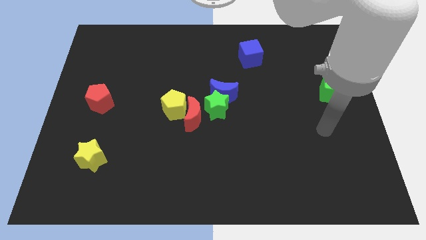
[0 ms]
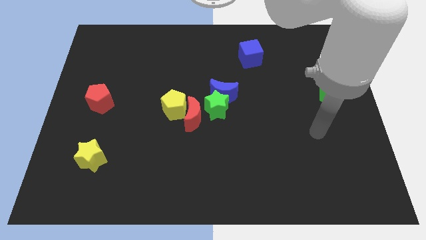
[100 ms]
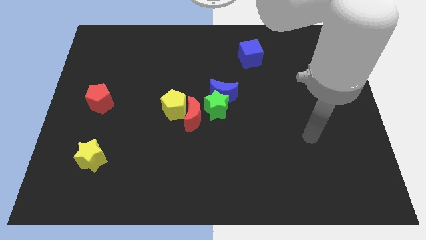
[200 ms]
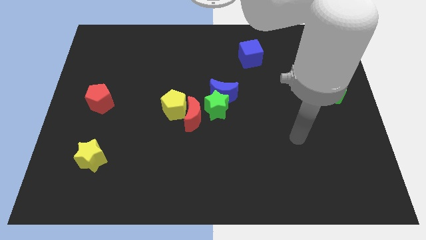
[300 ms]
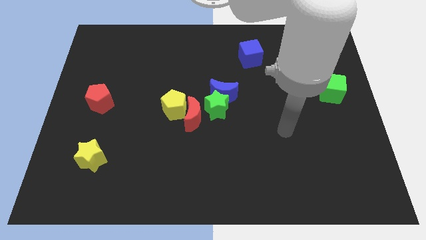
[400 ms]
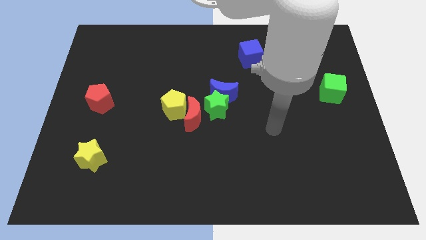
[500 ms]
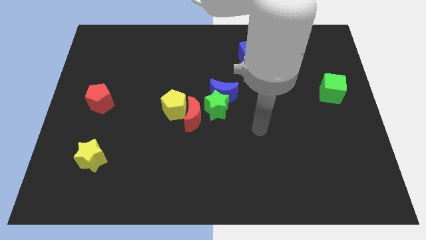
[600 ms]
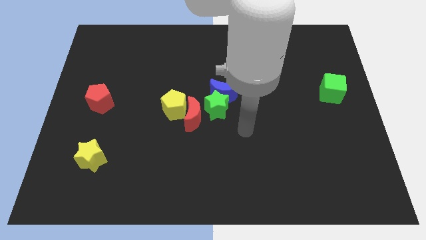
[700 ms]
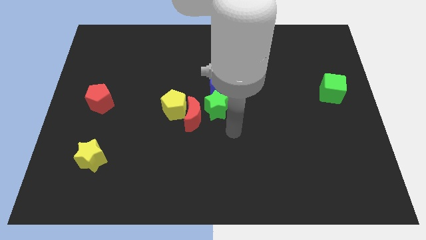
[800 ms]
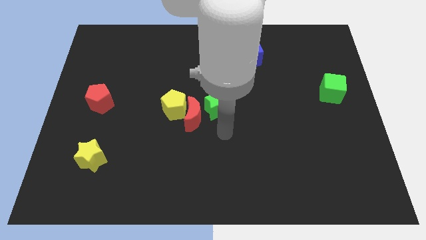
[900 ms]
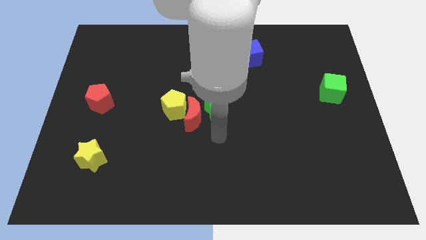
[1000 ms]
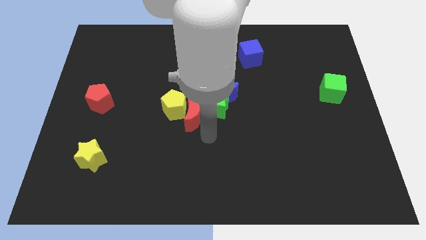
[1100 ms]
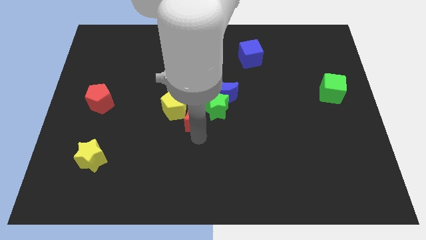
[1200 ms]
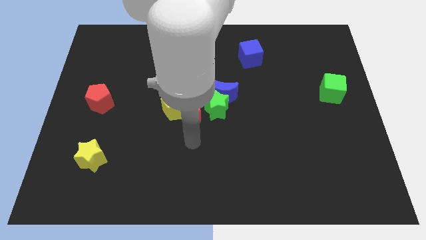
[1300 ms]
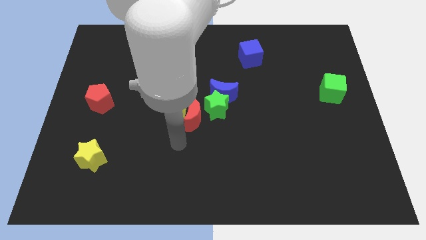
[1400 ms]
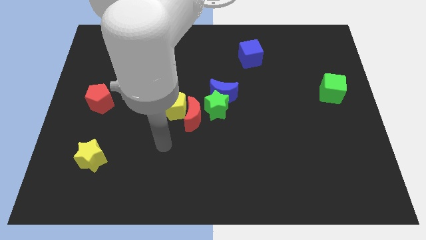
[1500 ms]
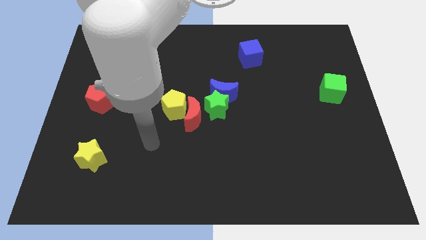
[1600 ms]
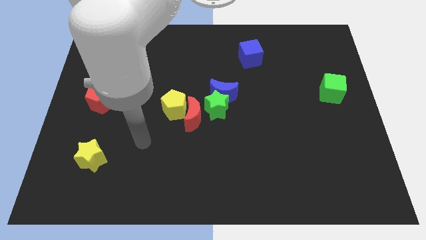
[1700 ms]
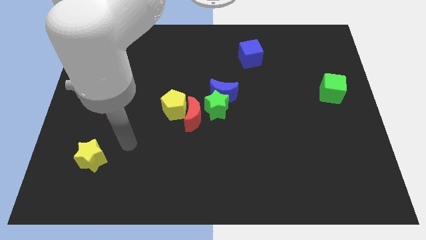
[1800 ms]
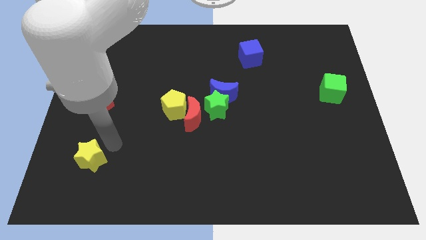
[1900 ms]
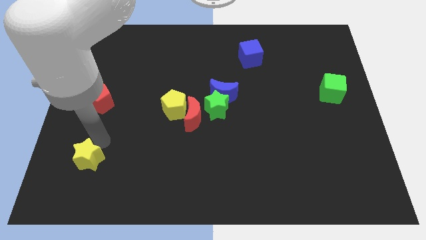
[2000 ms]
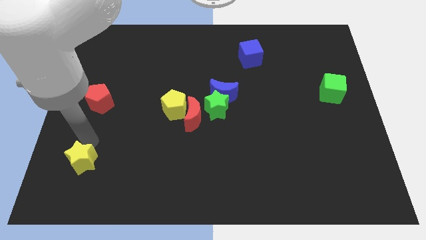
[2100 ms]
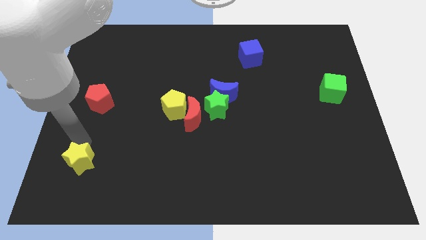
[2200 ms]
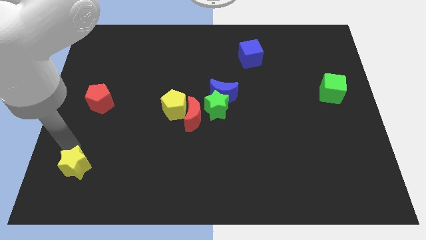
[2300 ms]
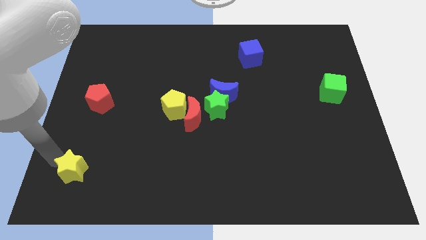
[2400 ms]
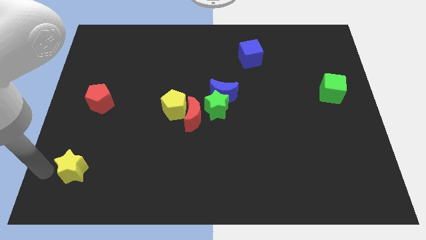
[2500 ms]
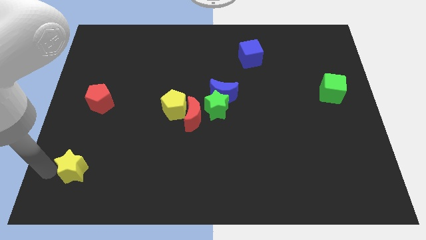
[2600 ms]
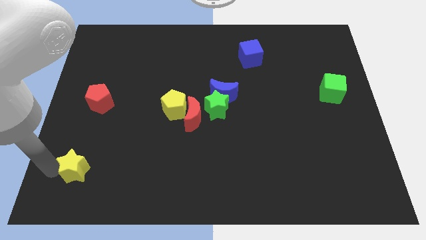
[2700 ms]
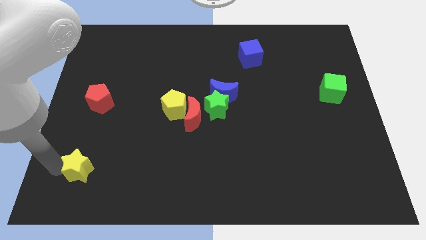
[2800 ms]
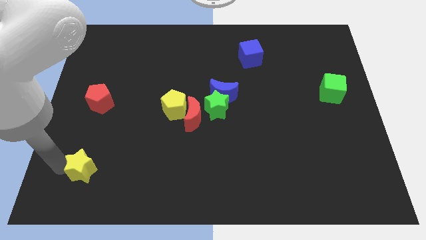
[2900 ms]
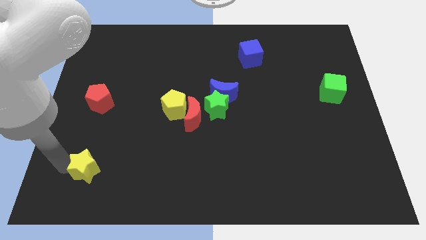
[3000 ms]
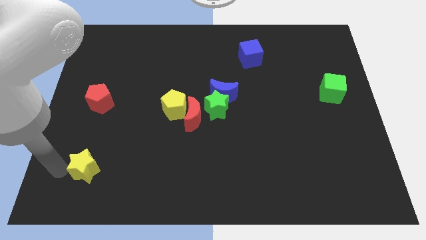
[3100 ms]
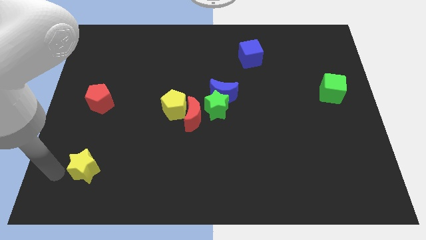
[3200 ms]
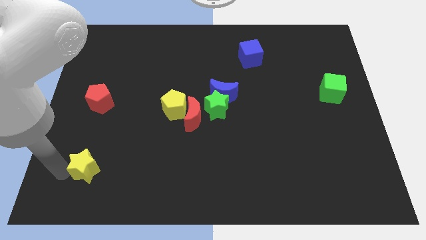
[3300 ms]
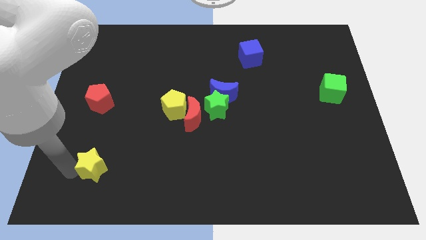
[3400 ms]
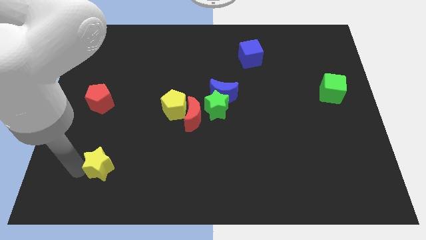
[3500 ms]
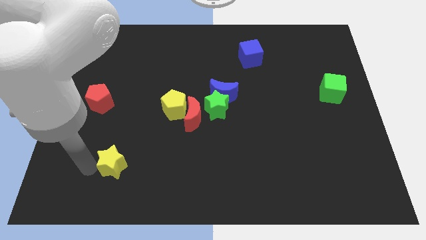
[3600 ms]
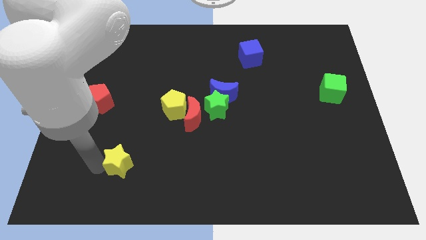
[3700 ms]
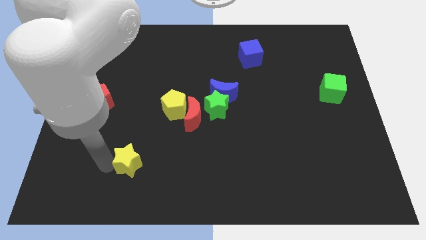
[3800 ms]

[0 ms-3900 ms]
slide the yellow star right a little

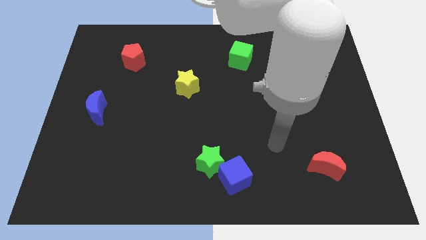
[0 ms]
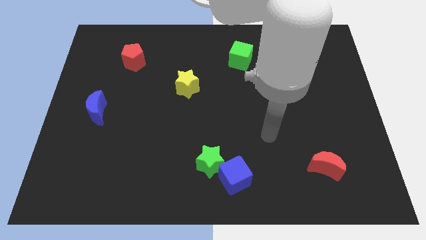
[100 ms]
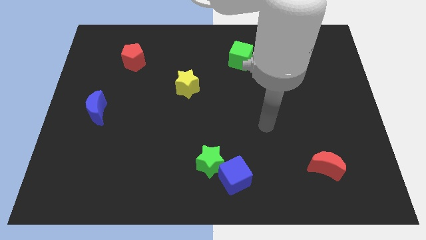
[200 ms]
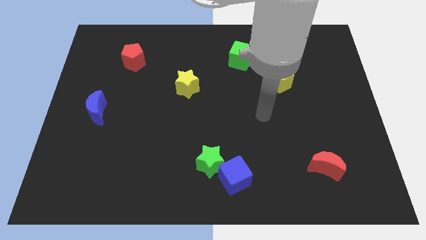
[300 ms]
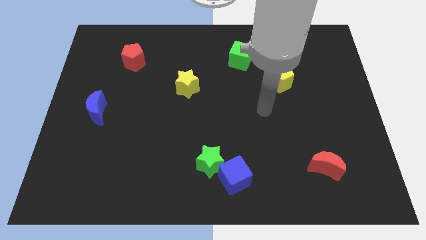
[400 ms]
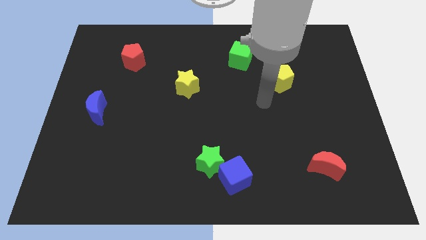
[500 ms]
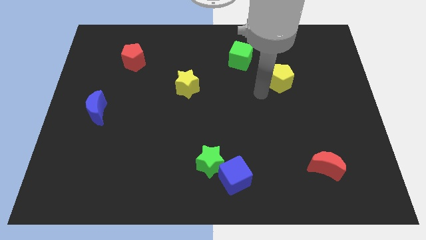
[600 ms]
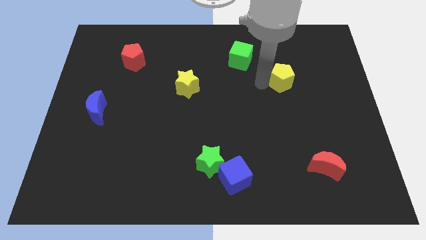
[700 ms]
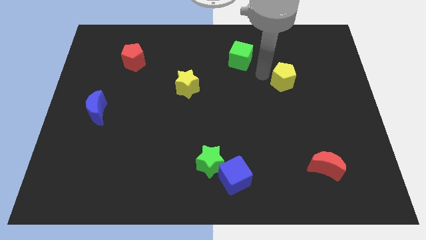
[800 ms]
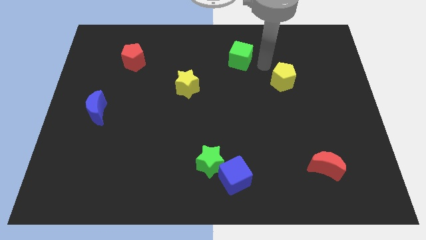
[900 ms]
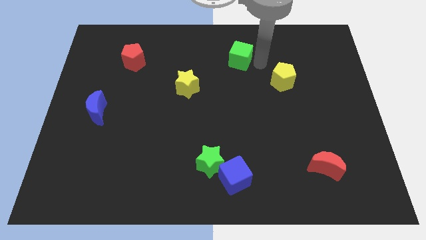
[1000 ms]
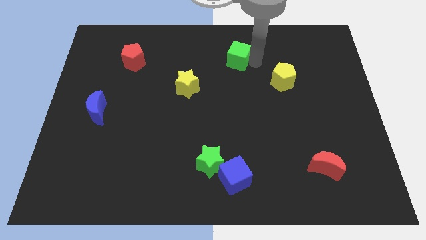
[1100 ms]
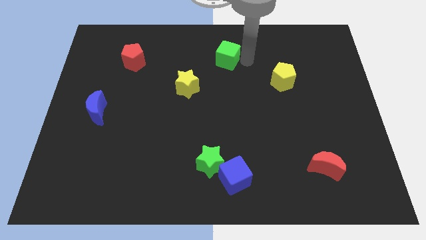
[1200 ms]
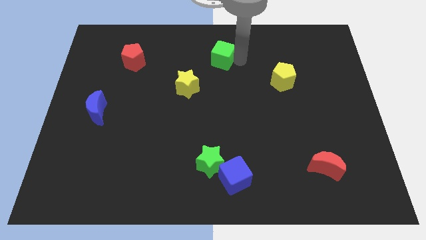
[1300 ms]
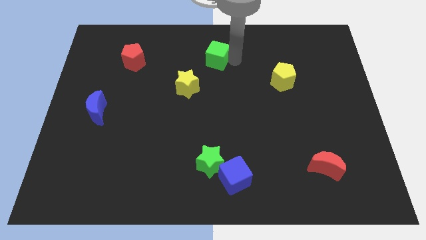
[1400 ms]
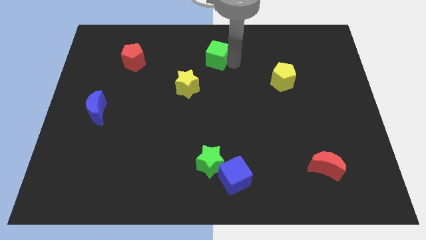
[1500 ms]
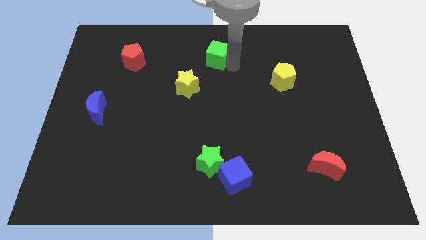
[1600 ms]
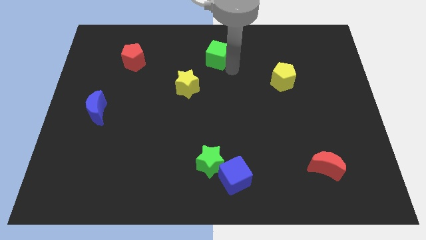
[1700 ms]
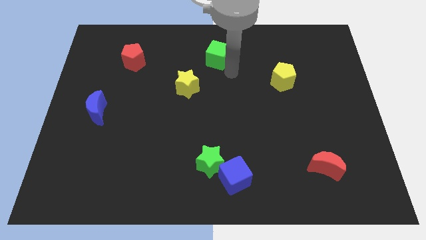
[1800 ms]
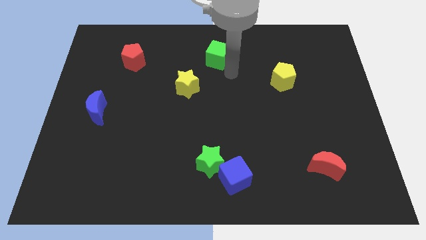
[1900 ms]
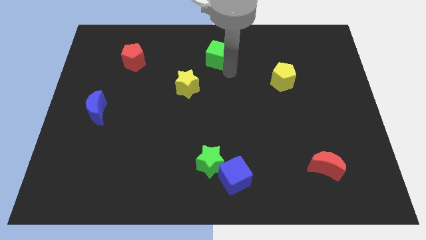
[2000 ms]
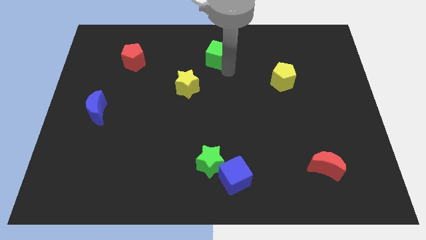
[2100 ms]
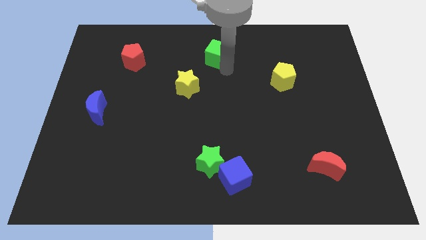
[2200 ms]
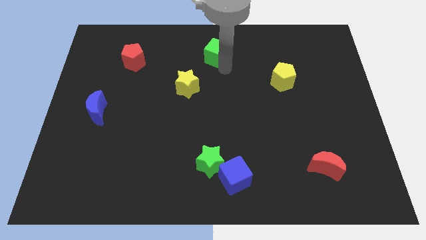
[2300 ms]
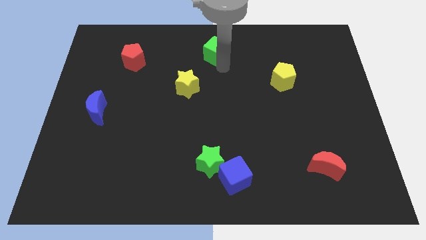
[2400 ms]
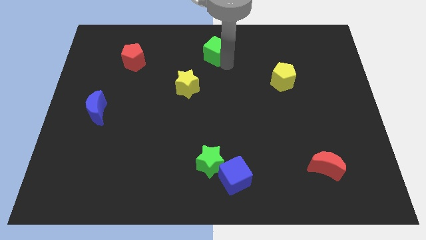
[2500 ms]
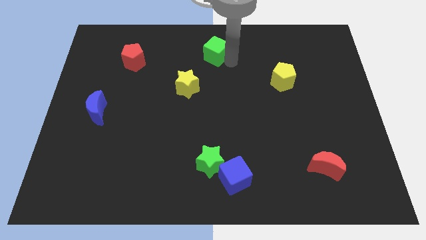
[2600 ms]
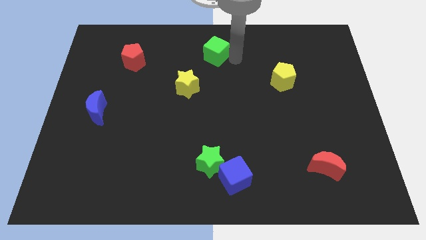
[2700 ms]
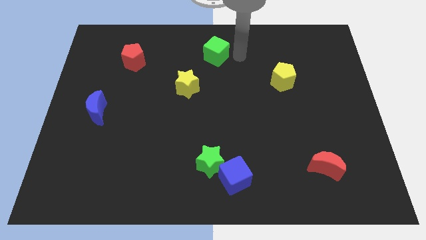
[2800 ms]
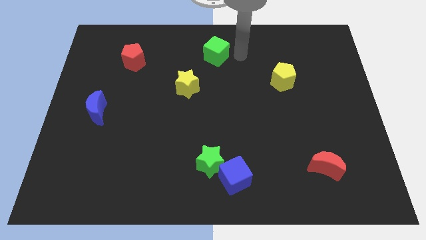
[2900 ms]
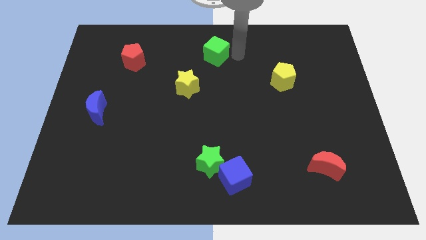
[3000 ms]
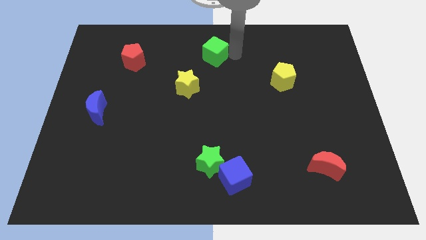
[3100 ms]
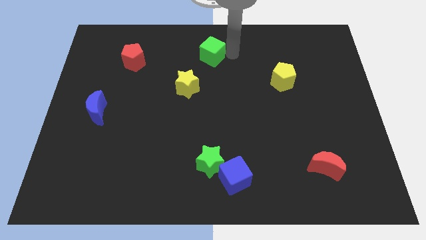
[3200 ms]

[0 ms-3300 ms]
push the green cube to the left a little bit

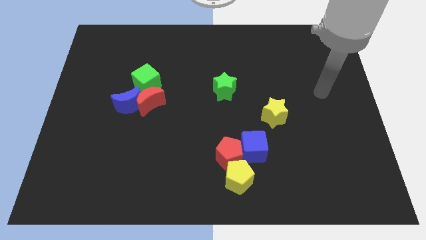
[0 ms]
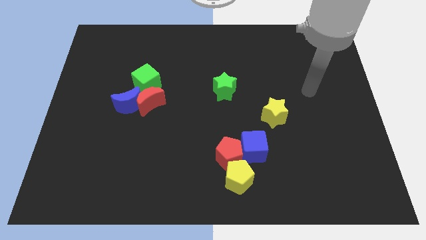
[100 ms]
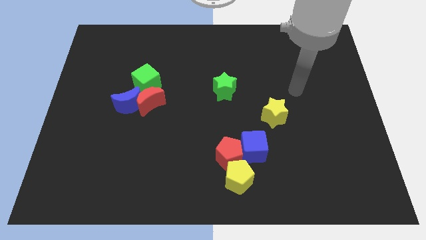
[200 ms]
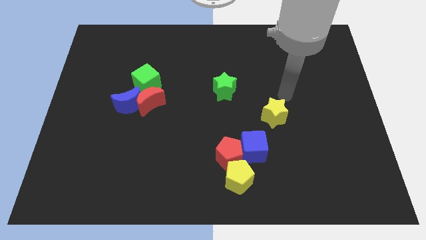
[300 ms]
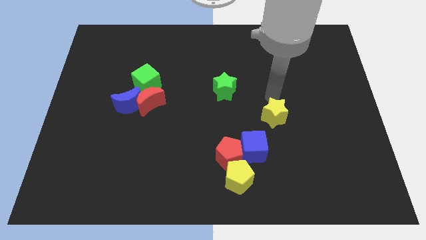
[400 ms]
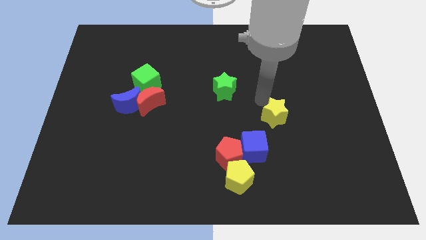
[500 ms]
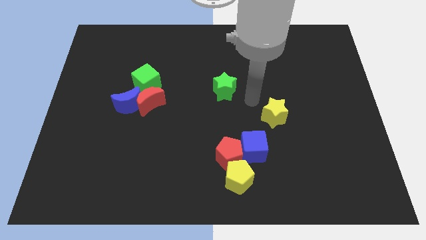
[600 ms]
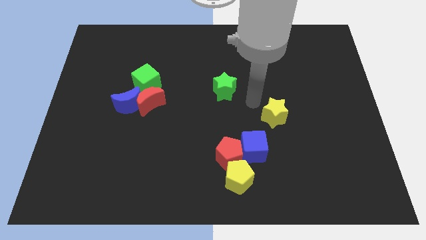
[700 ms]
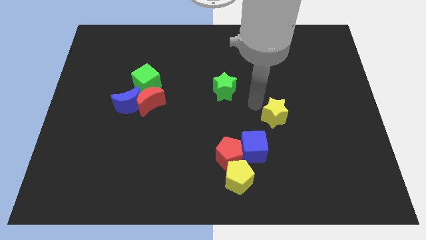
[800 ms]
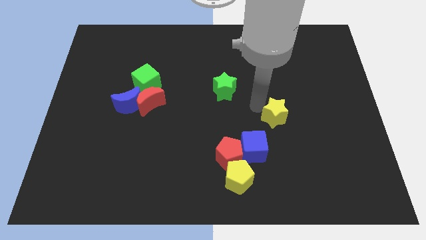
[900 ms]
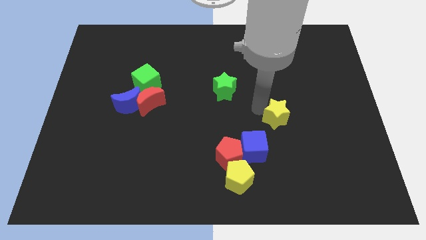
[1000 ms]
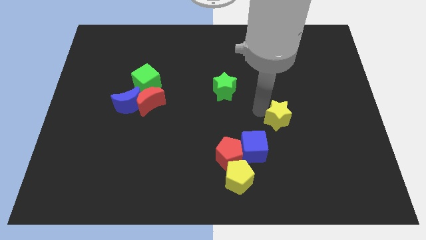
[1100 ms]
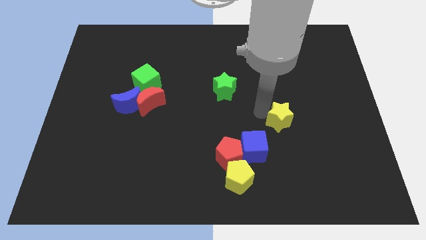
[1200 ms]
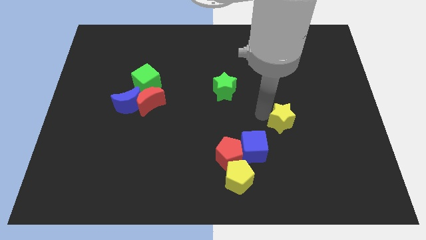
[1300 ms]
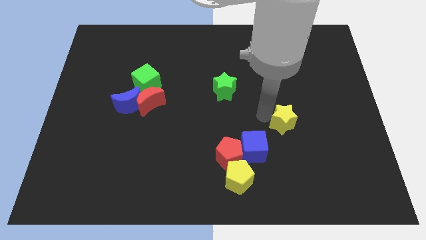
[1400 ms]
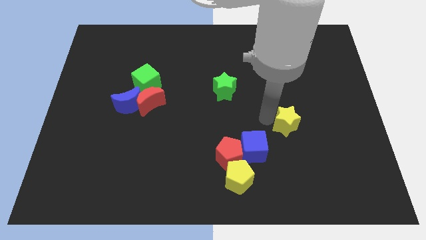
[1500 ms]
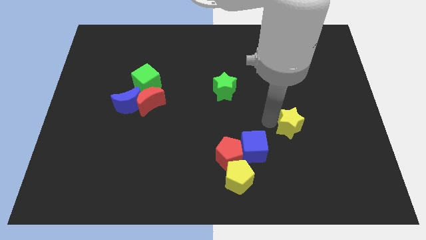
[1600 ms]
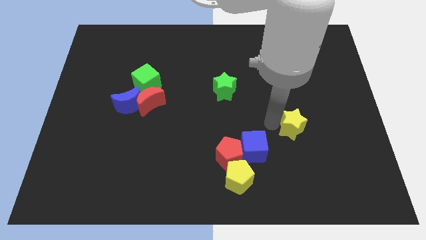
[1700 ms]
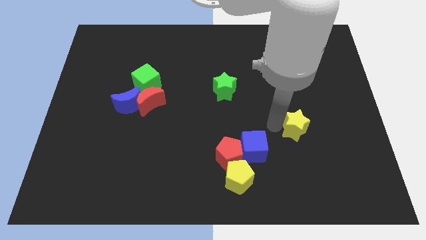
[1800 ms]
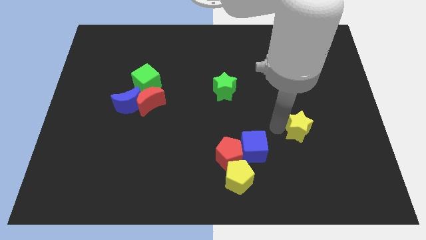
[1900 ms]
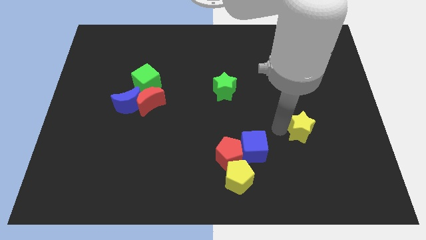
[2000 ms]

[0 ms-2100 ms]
move the yellow star downwards and to the right slightly
